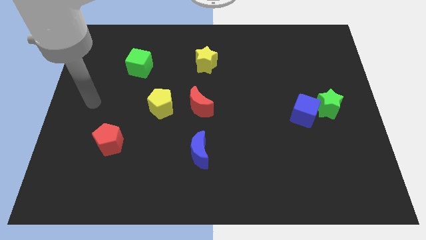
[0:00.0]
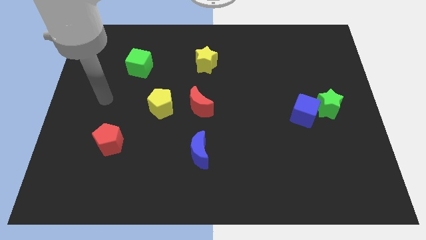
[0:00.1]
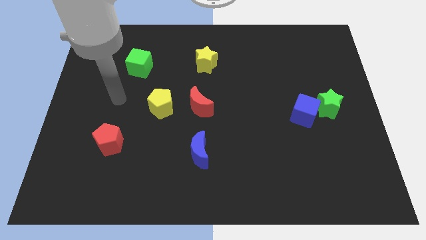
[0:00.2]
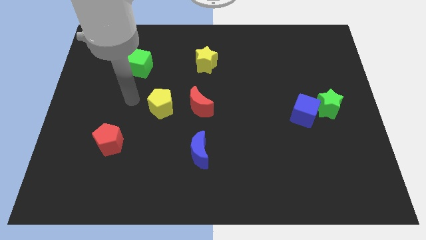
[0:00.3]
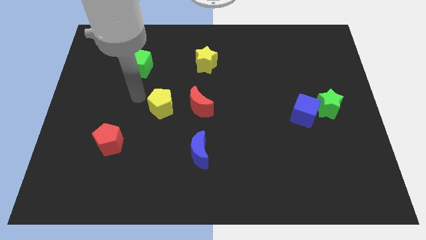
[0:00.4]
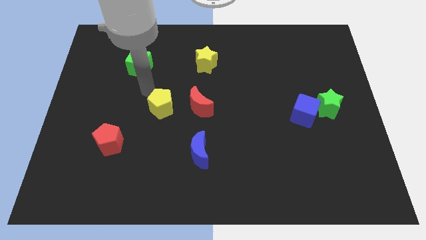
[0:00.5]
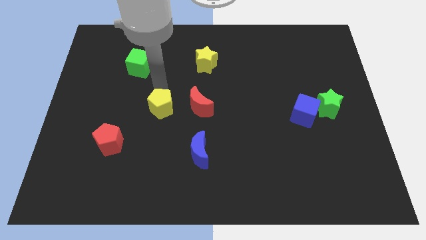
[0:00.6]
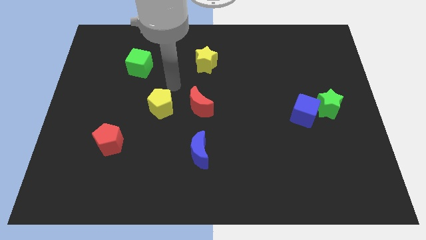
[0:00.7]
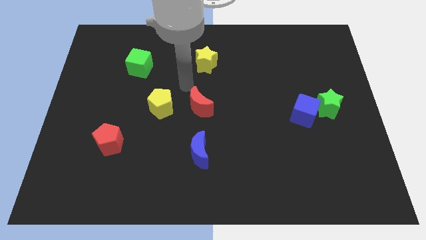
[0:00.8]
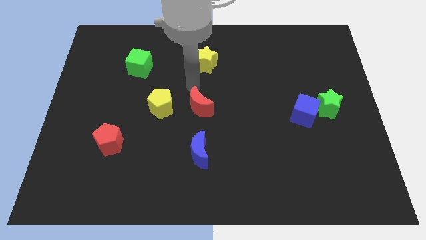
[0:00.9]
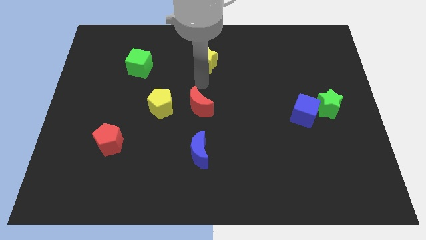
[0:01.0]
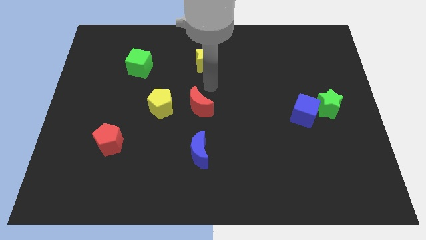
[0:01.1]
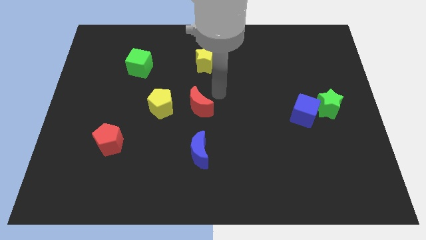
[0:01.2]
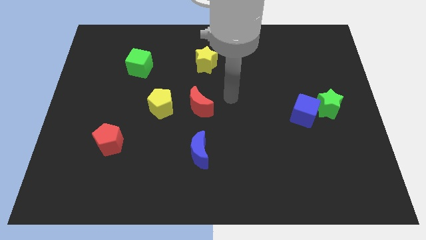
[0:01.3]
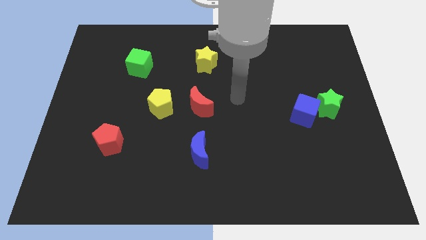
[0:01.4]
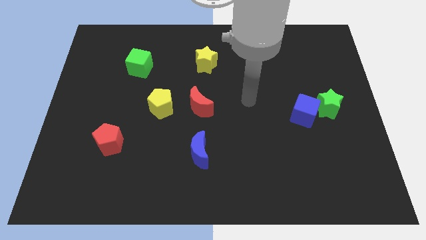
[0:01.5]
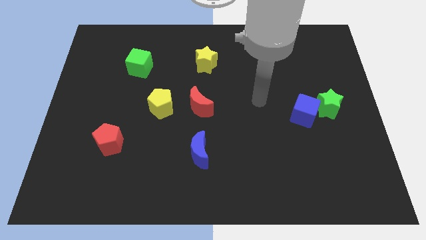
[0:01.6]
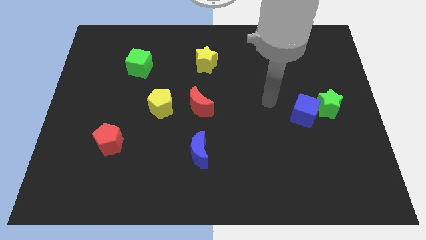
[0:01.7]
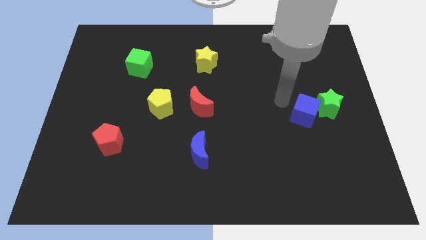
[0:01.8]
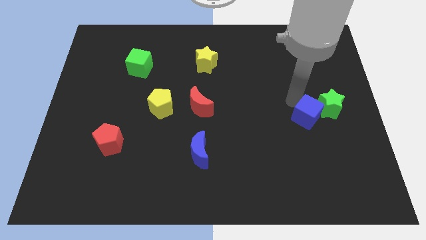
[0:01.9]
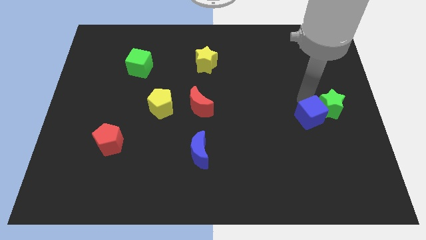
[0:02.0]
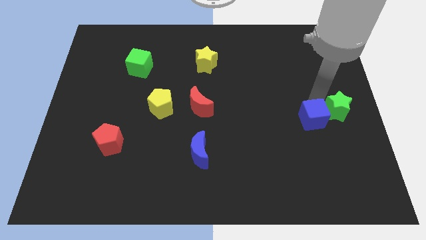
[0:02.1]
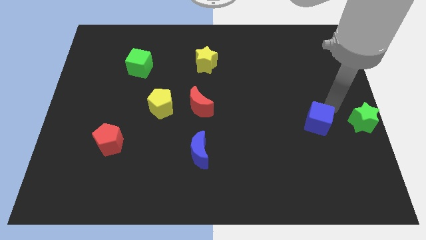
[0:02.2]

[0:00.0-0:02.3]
separate the blue cube from the green star

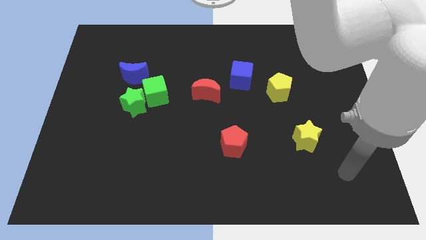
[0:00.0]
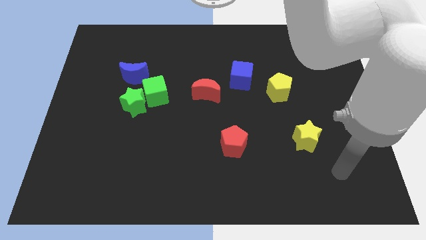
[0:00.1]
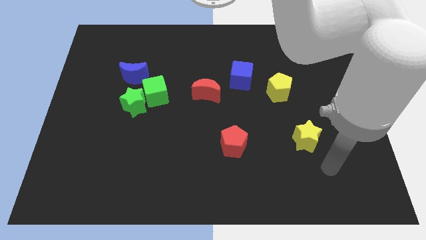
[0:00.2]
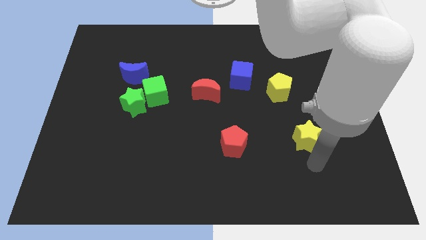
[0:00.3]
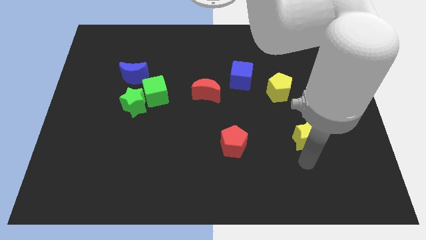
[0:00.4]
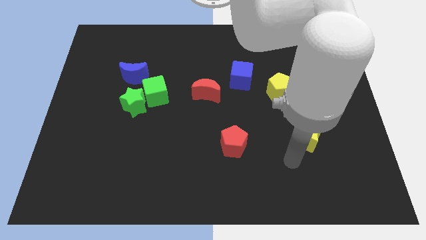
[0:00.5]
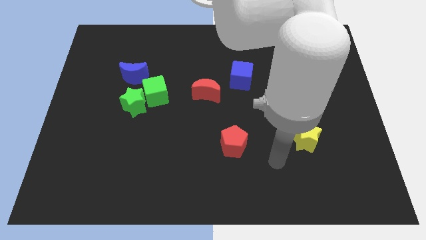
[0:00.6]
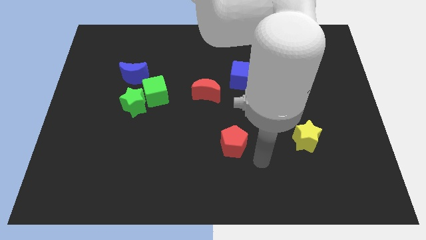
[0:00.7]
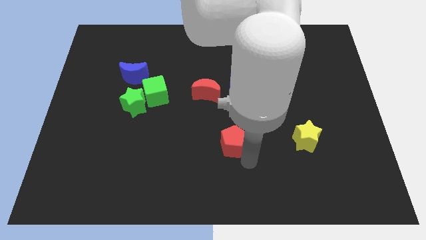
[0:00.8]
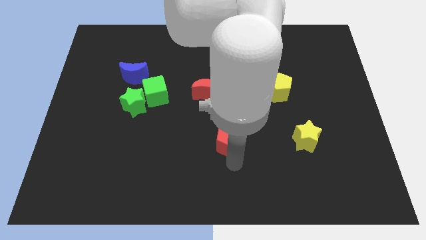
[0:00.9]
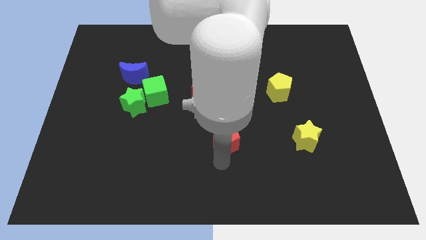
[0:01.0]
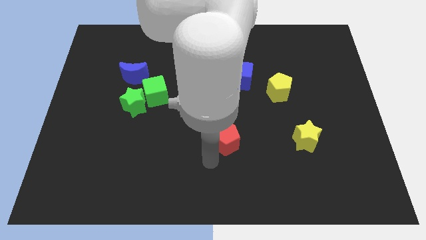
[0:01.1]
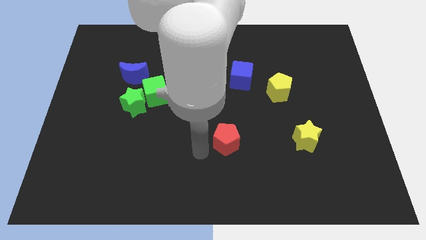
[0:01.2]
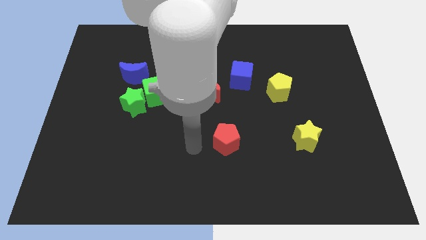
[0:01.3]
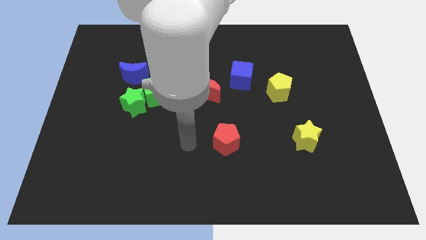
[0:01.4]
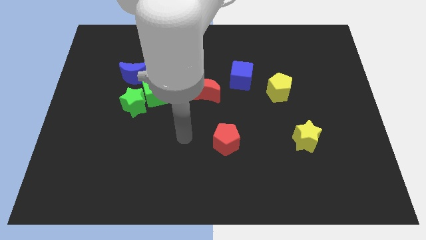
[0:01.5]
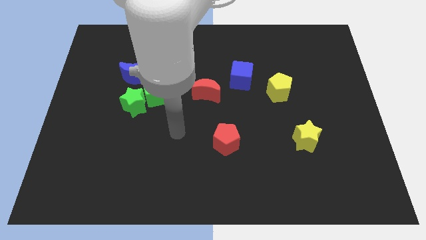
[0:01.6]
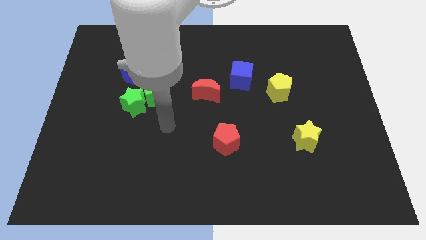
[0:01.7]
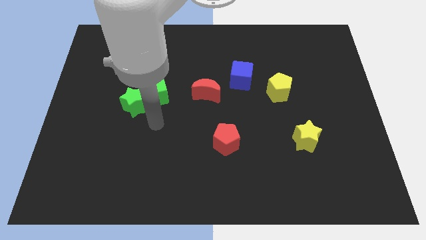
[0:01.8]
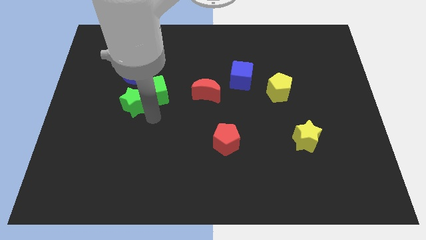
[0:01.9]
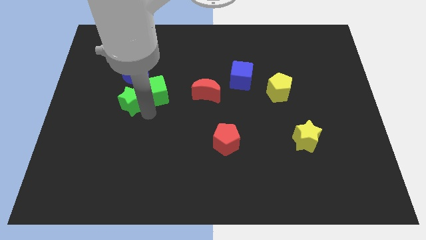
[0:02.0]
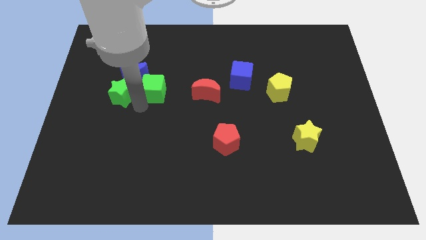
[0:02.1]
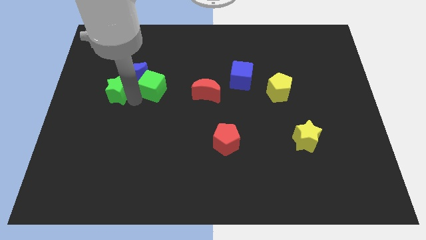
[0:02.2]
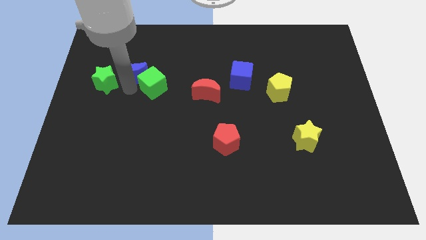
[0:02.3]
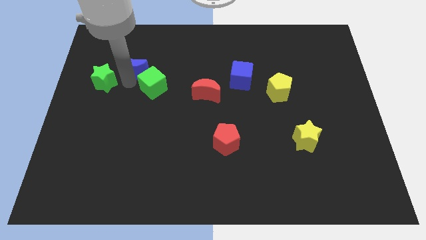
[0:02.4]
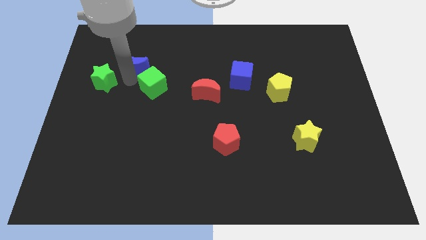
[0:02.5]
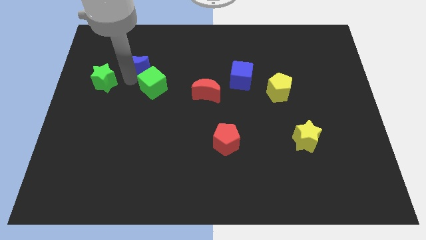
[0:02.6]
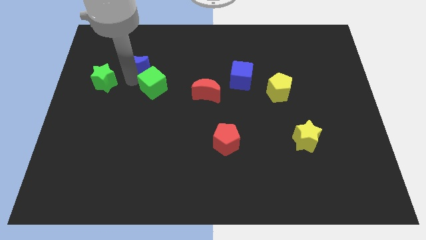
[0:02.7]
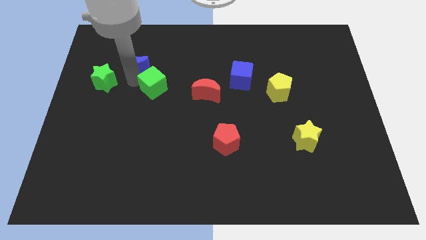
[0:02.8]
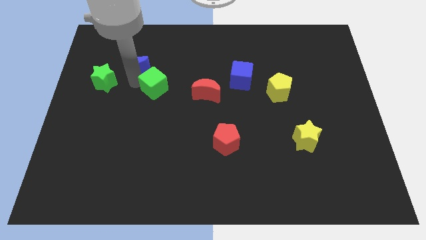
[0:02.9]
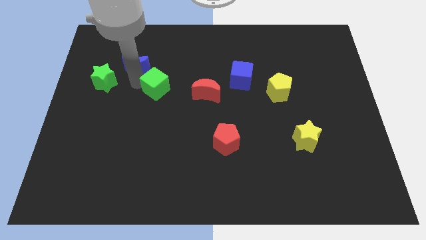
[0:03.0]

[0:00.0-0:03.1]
move the green cube away from the green star and blue moon

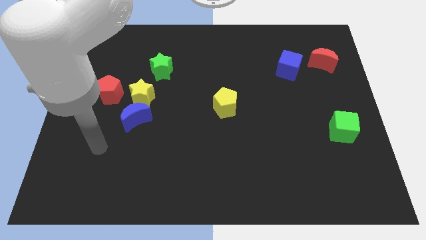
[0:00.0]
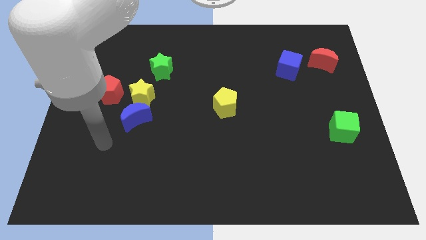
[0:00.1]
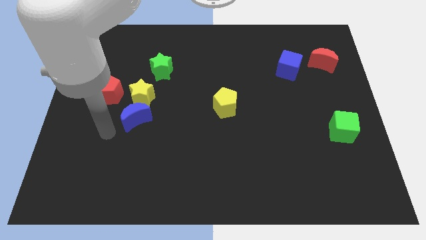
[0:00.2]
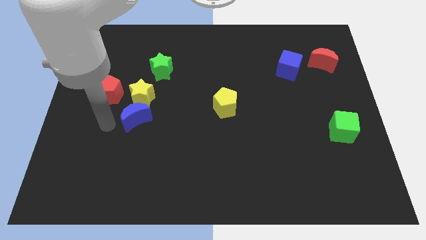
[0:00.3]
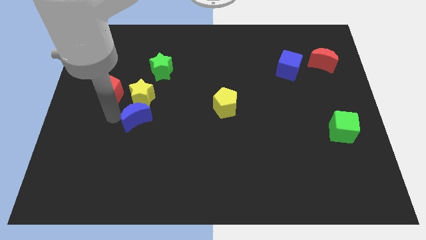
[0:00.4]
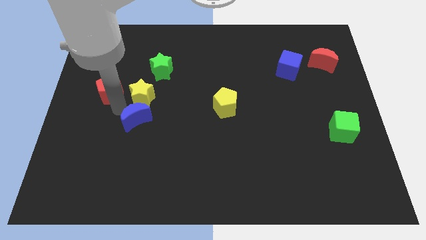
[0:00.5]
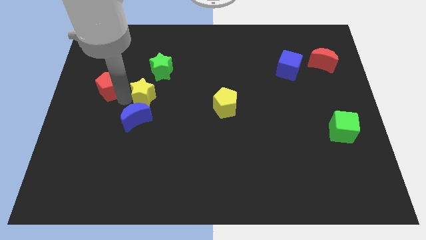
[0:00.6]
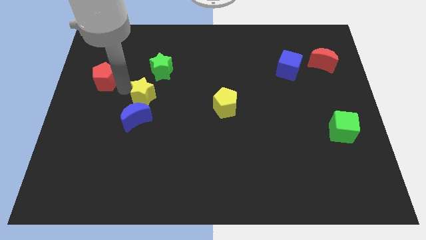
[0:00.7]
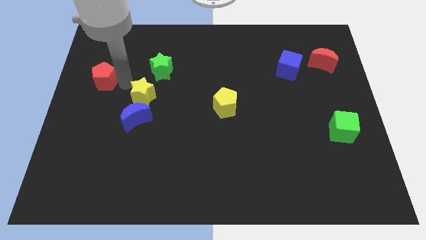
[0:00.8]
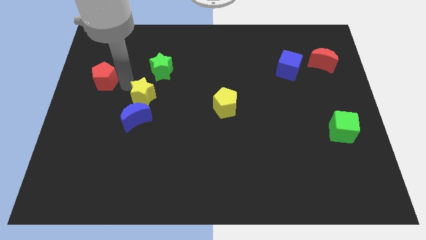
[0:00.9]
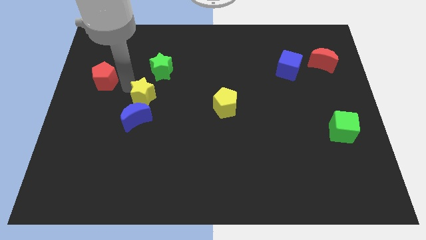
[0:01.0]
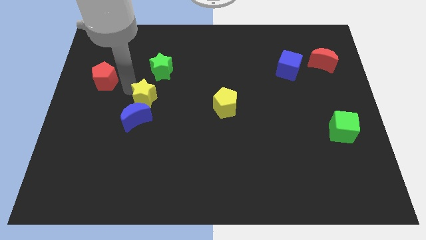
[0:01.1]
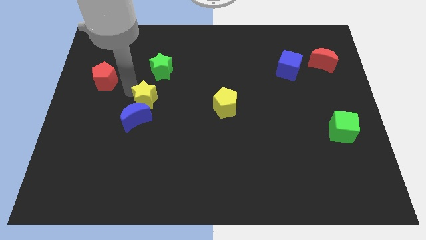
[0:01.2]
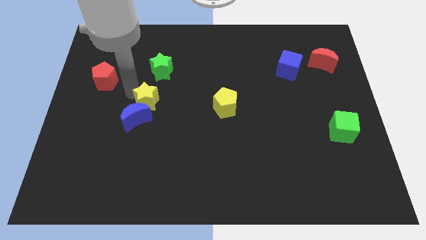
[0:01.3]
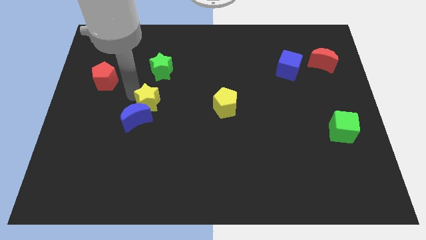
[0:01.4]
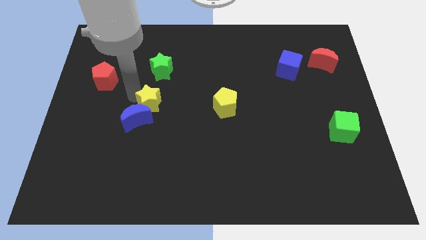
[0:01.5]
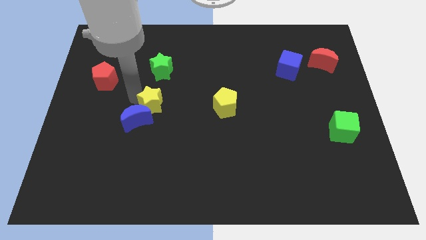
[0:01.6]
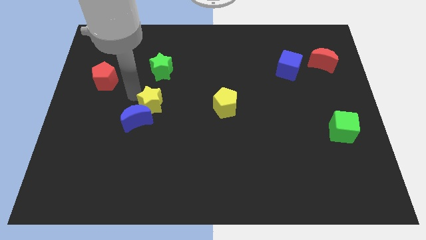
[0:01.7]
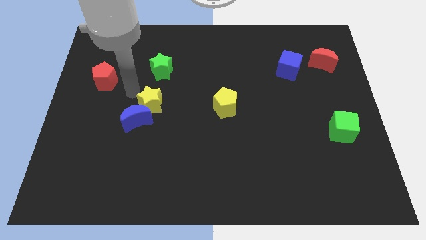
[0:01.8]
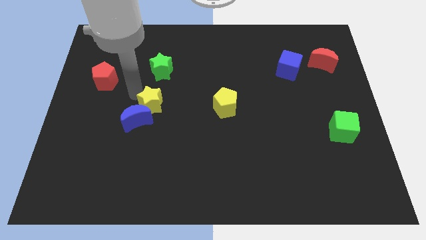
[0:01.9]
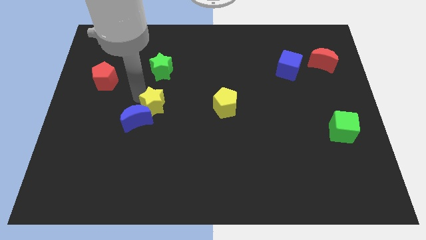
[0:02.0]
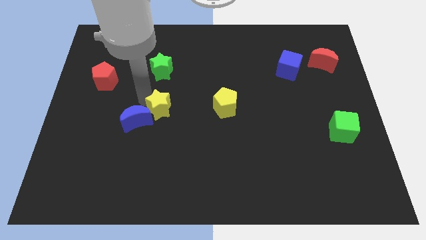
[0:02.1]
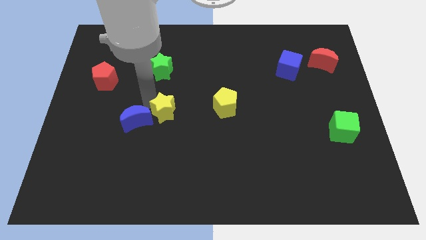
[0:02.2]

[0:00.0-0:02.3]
move the yellow star away from the clump

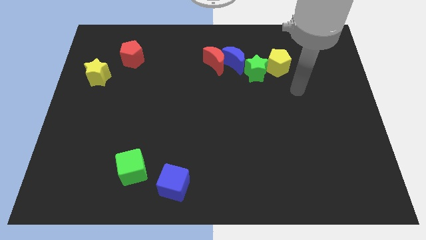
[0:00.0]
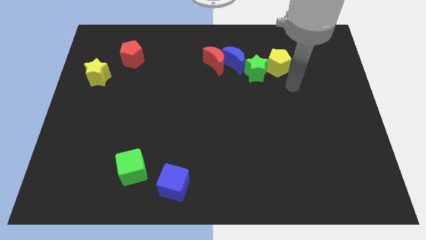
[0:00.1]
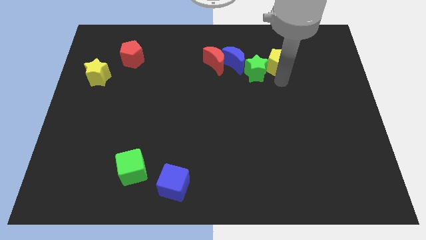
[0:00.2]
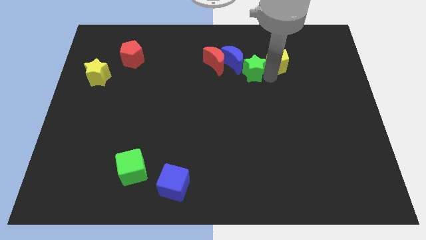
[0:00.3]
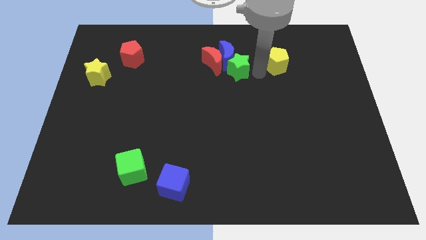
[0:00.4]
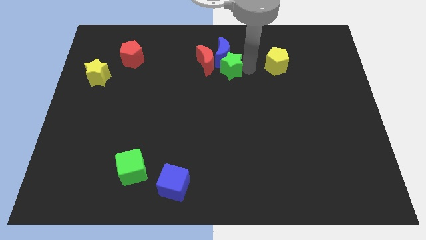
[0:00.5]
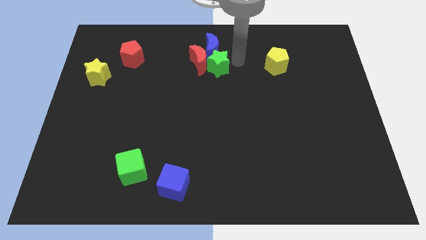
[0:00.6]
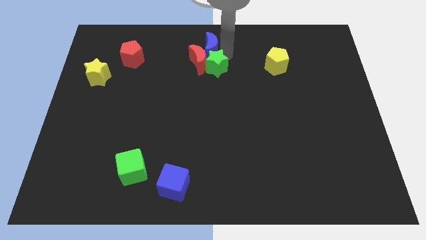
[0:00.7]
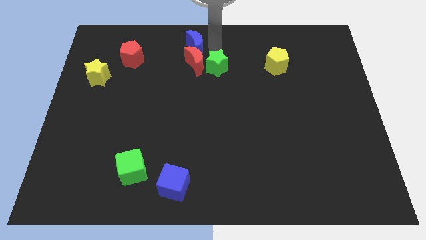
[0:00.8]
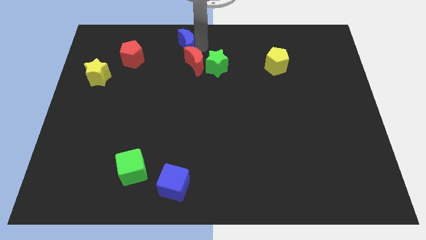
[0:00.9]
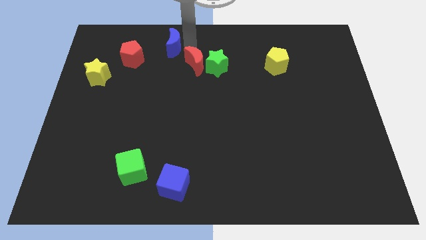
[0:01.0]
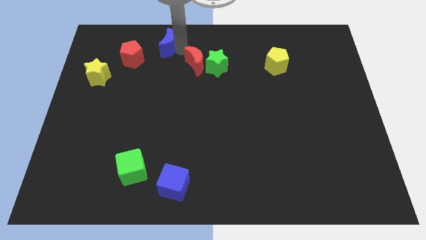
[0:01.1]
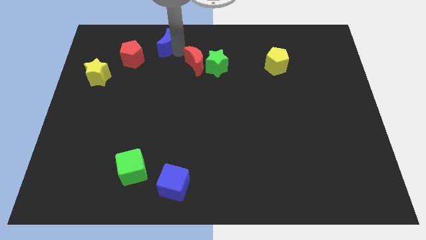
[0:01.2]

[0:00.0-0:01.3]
separate the red moon from the blue moon

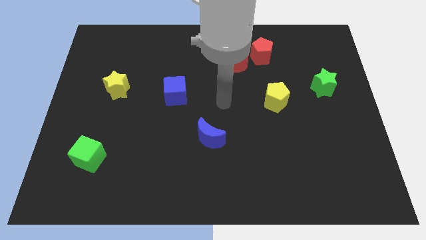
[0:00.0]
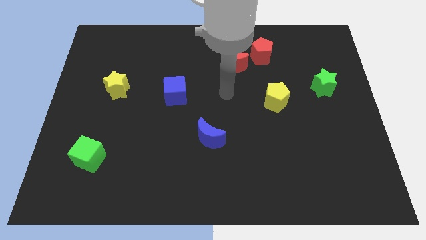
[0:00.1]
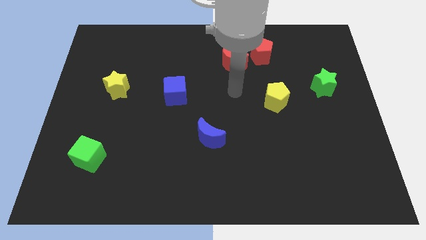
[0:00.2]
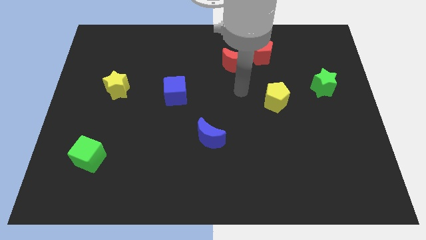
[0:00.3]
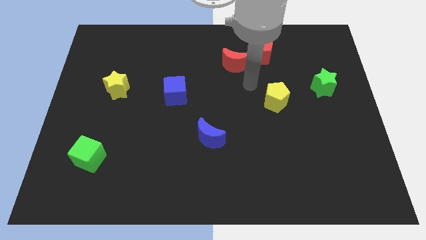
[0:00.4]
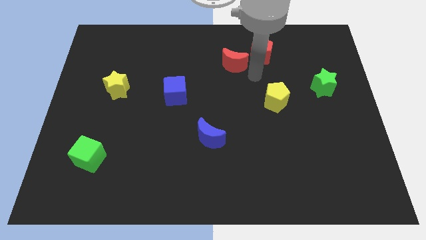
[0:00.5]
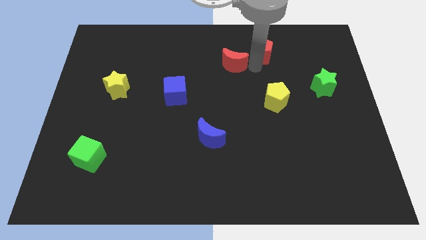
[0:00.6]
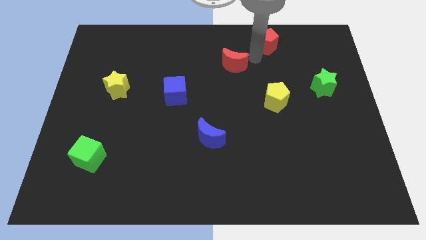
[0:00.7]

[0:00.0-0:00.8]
separate the red moon from the red pentagon
